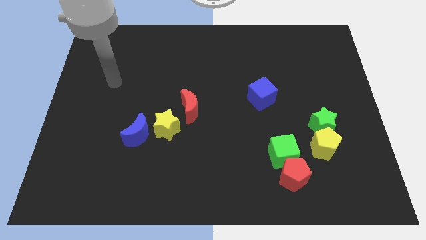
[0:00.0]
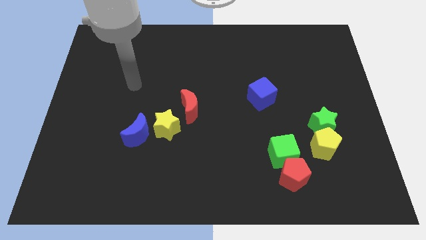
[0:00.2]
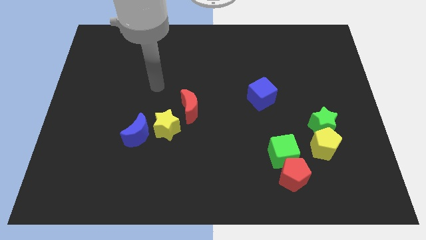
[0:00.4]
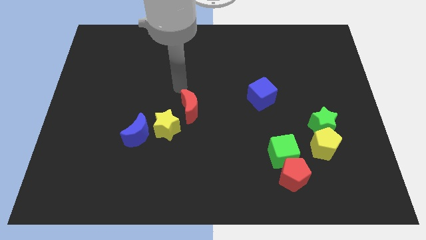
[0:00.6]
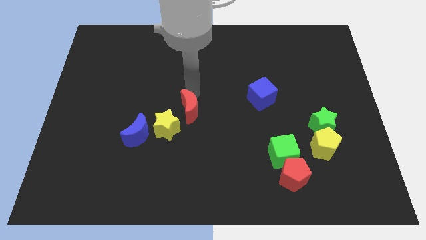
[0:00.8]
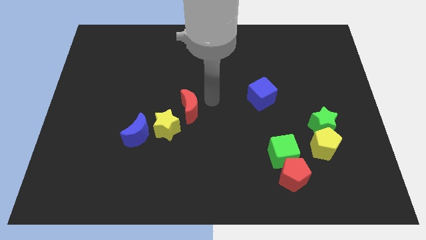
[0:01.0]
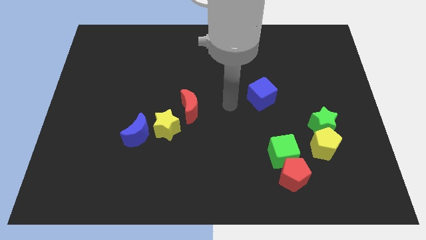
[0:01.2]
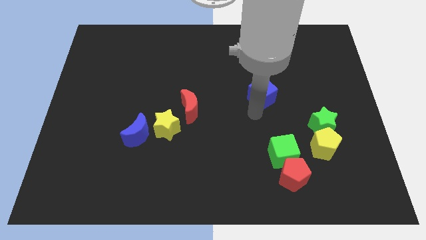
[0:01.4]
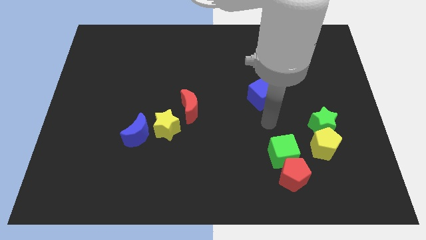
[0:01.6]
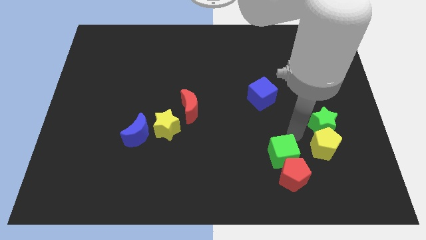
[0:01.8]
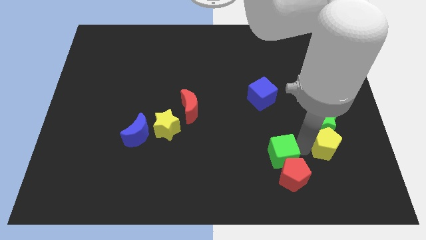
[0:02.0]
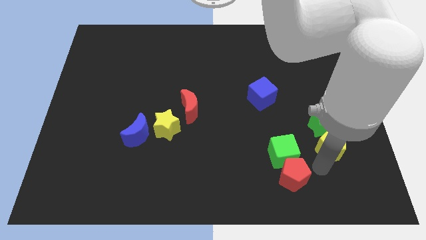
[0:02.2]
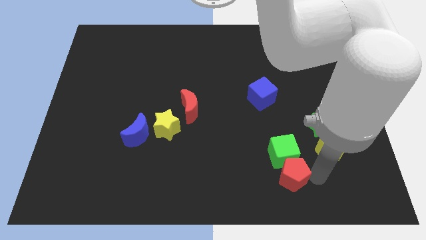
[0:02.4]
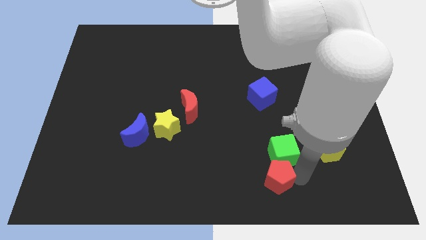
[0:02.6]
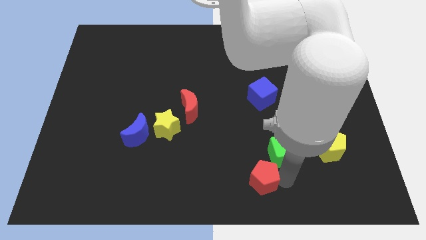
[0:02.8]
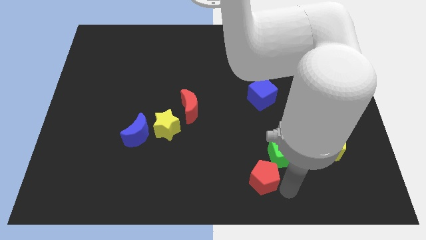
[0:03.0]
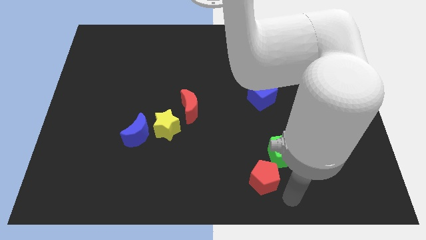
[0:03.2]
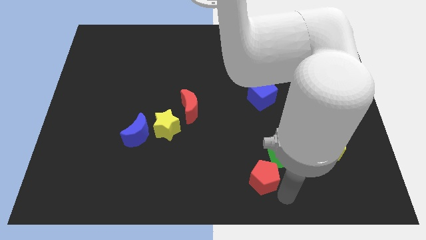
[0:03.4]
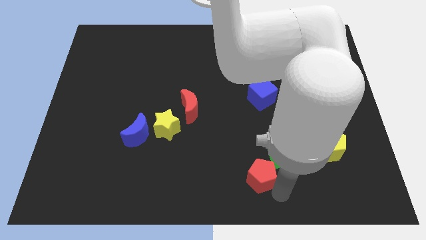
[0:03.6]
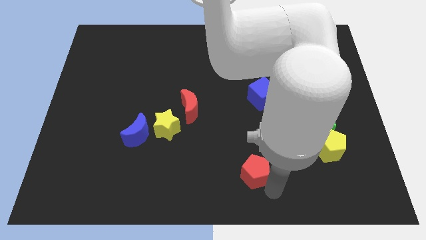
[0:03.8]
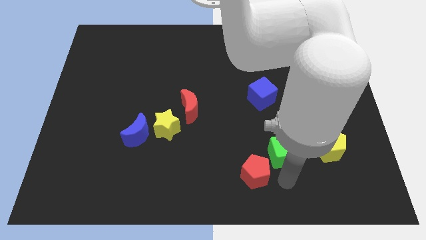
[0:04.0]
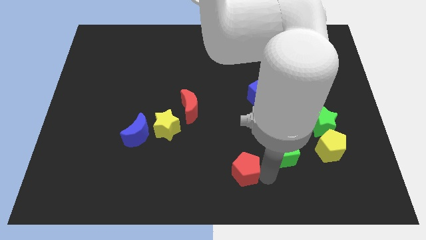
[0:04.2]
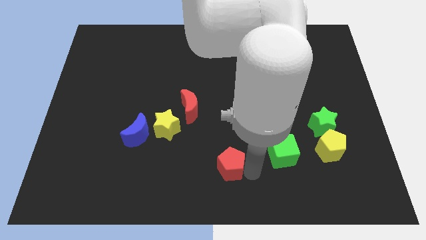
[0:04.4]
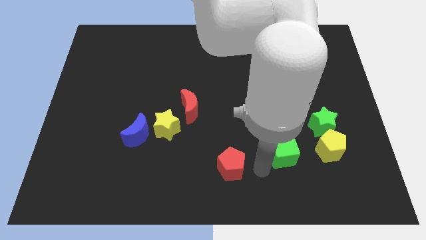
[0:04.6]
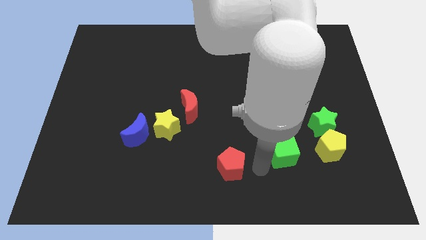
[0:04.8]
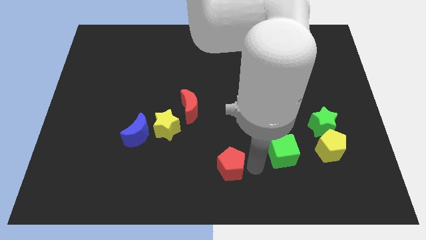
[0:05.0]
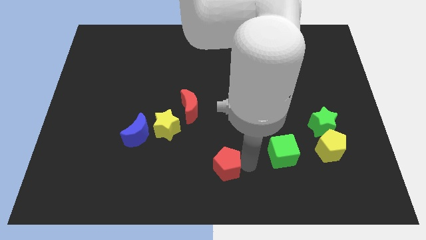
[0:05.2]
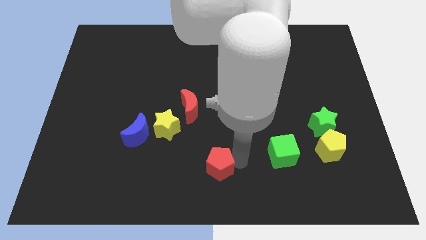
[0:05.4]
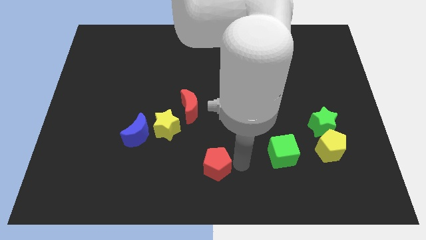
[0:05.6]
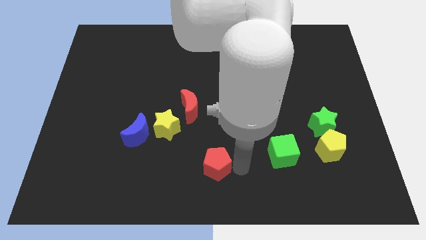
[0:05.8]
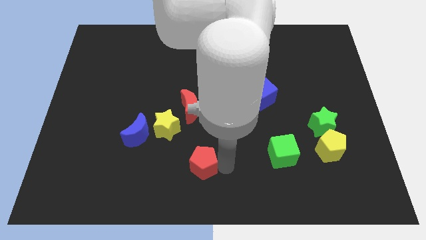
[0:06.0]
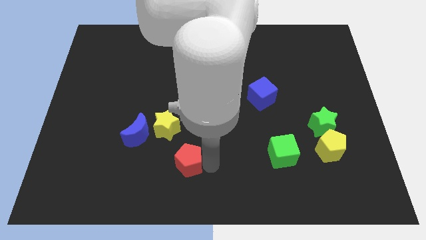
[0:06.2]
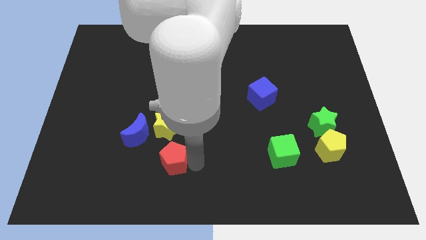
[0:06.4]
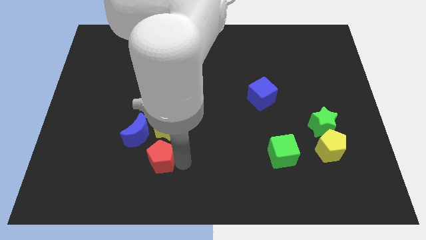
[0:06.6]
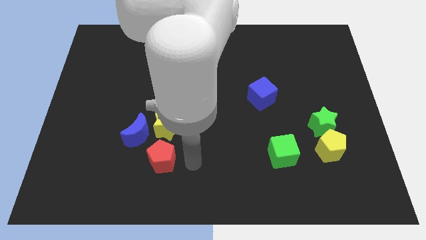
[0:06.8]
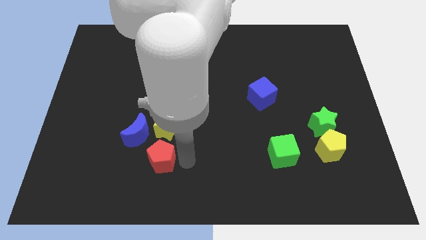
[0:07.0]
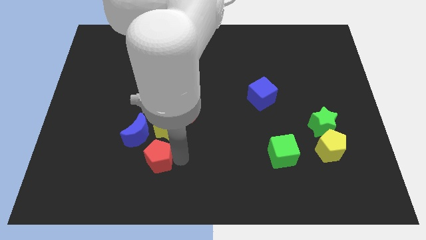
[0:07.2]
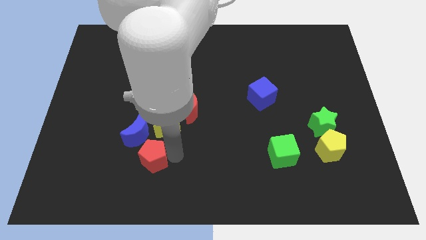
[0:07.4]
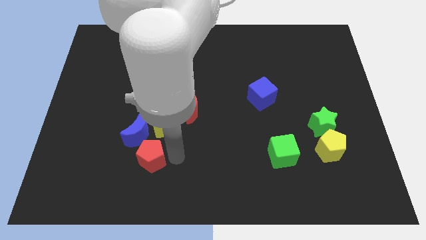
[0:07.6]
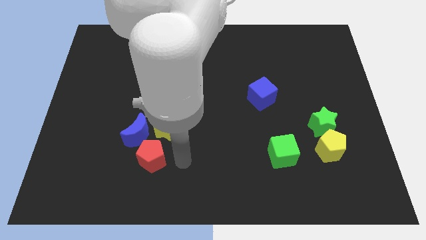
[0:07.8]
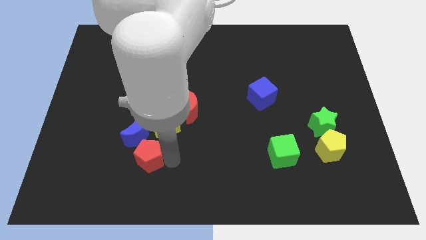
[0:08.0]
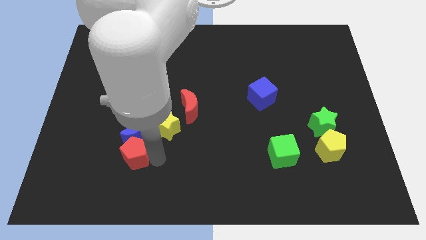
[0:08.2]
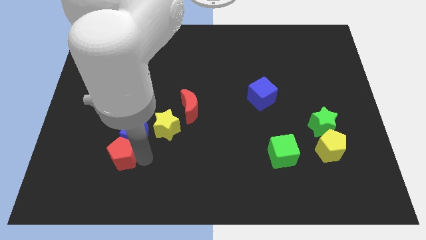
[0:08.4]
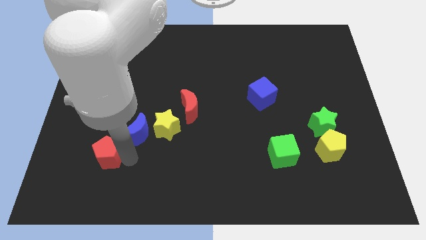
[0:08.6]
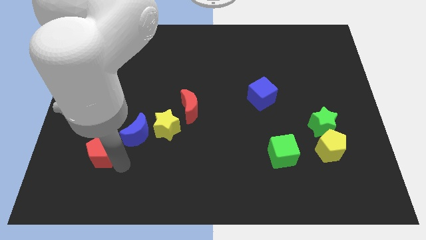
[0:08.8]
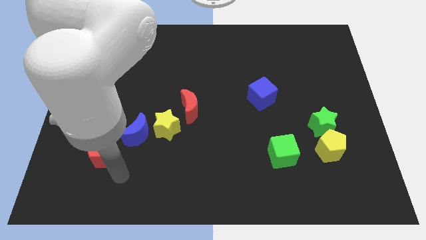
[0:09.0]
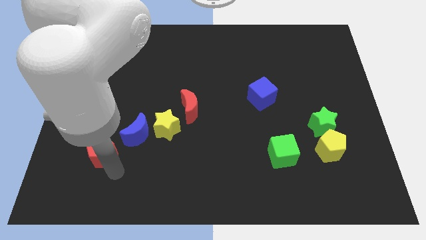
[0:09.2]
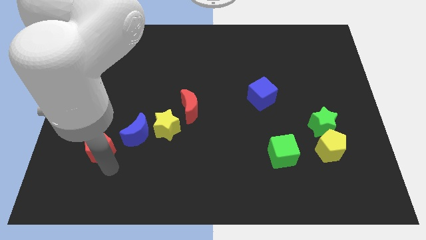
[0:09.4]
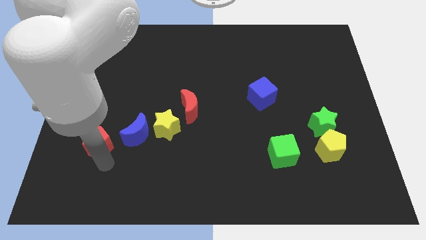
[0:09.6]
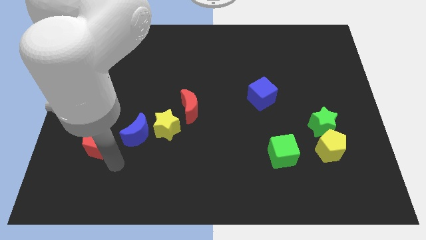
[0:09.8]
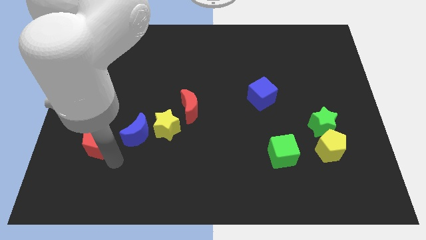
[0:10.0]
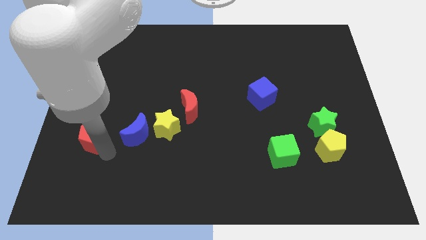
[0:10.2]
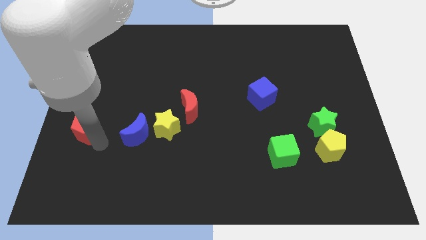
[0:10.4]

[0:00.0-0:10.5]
move the red pentagon to the left side of the board

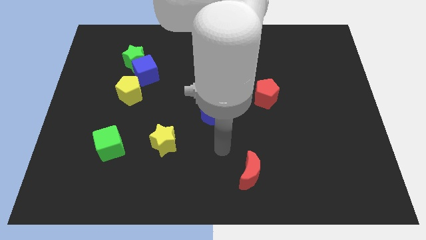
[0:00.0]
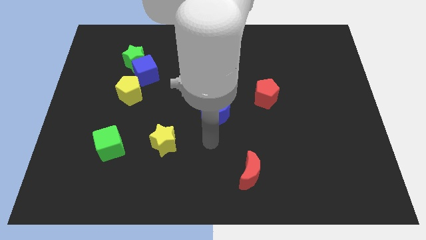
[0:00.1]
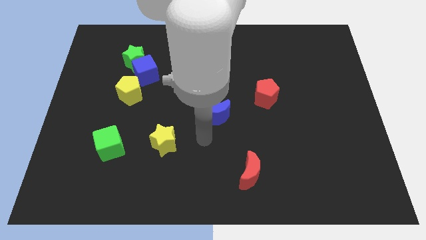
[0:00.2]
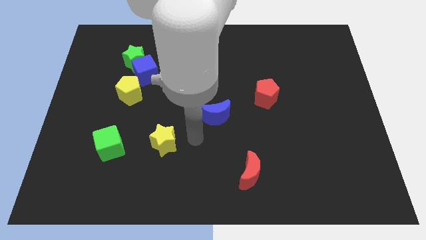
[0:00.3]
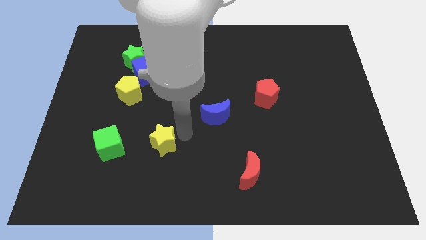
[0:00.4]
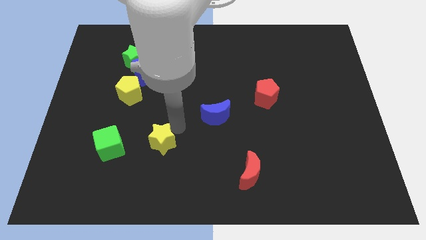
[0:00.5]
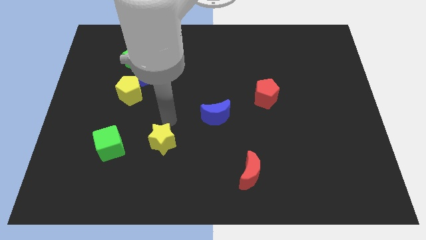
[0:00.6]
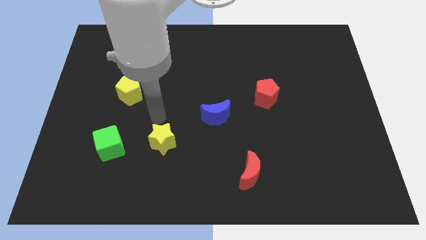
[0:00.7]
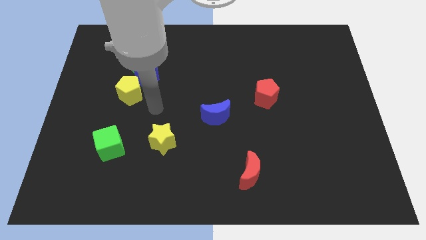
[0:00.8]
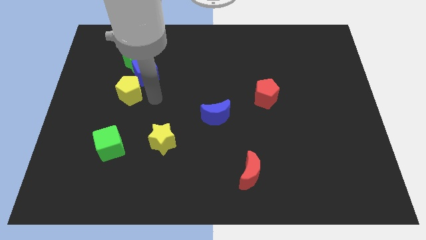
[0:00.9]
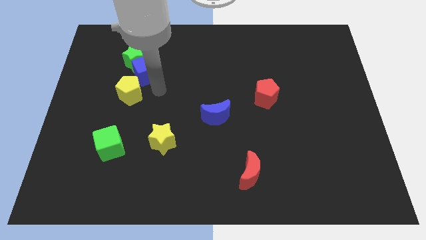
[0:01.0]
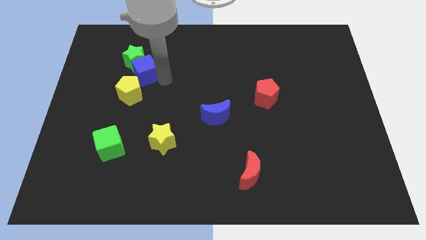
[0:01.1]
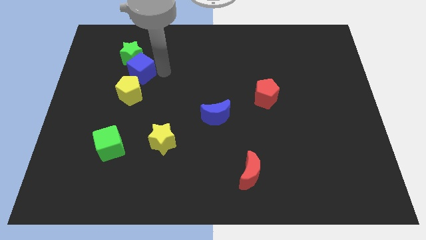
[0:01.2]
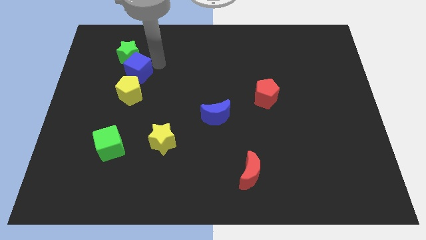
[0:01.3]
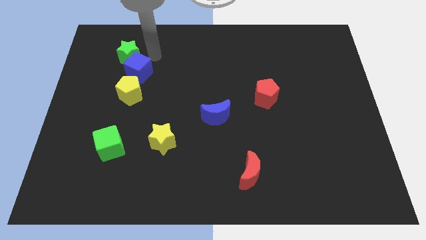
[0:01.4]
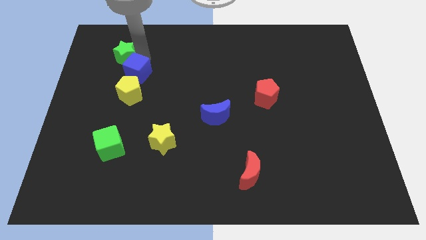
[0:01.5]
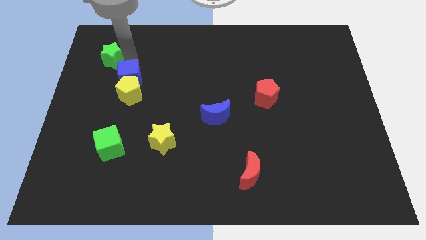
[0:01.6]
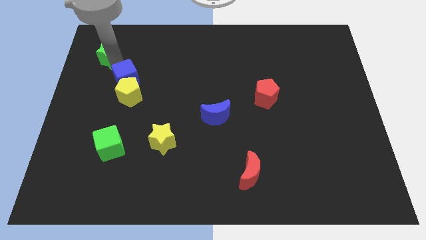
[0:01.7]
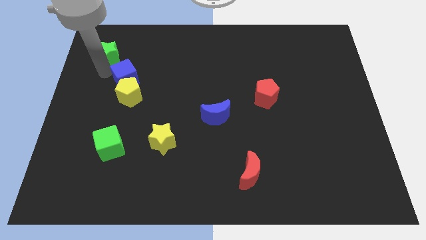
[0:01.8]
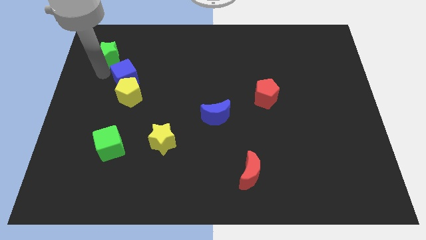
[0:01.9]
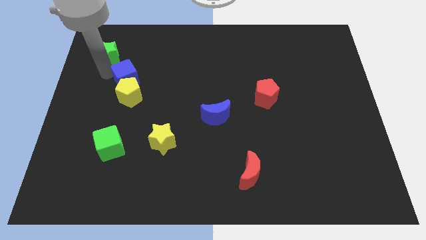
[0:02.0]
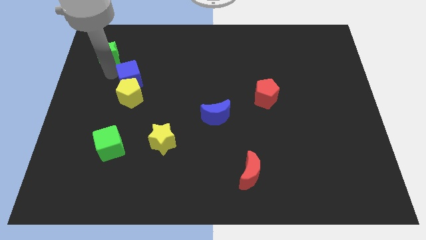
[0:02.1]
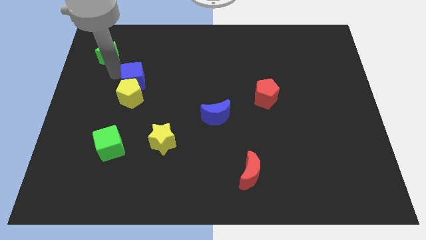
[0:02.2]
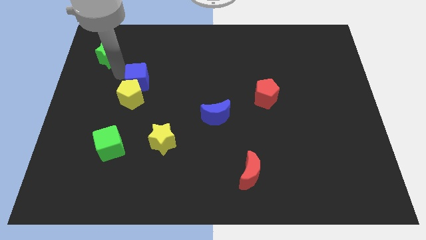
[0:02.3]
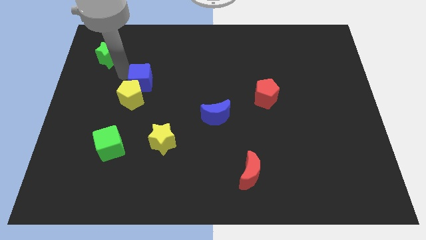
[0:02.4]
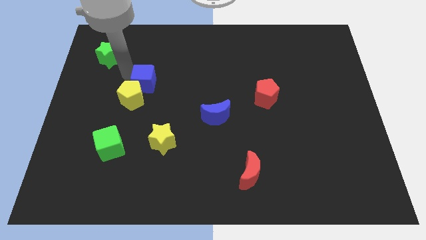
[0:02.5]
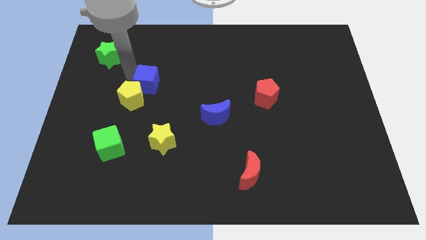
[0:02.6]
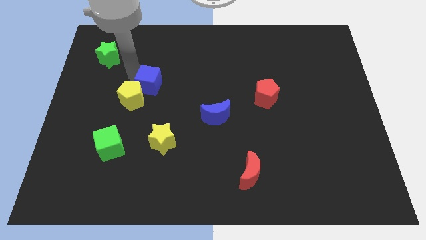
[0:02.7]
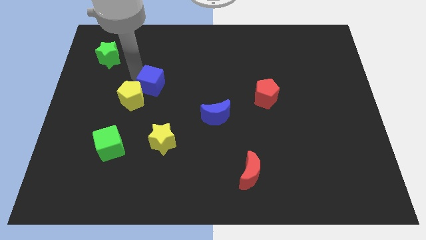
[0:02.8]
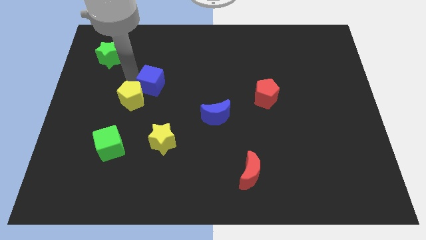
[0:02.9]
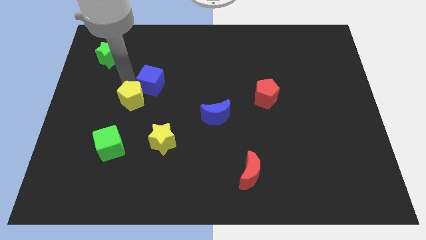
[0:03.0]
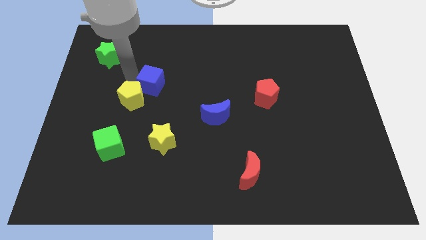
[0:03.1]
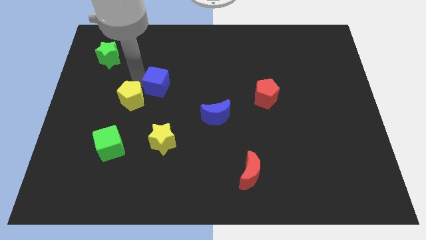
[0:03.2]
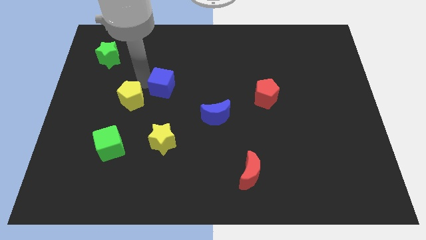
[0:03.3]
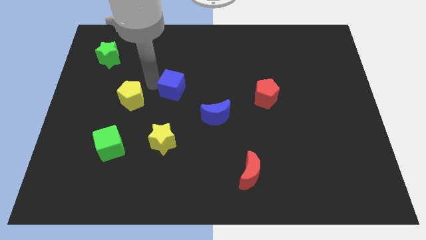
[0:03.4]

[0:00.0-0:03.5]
move the blue cube to the center
